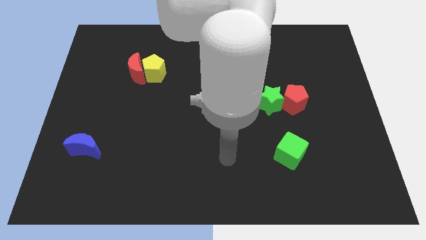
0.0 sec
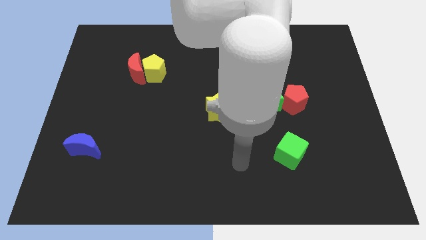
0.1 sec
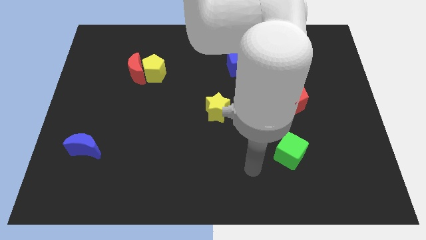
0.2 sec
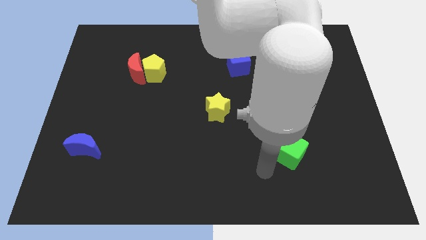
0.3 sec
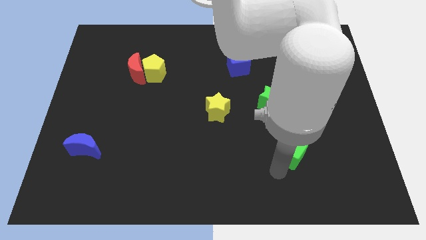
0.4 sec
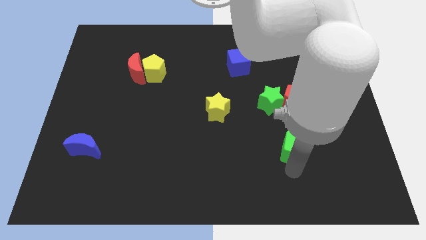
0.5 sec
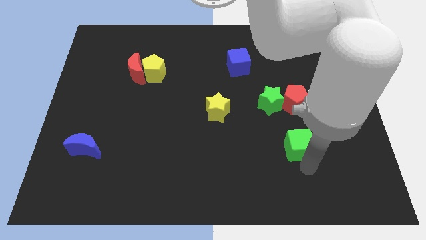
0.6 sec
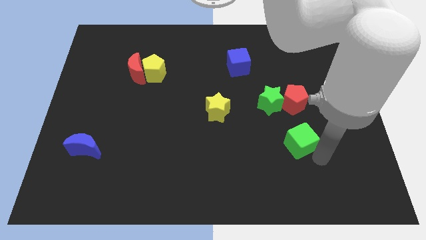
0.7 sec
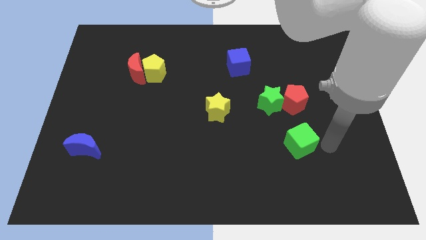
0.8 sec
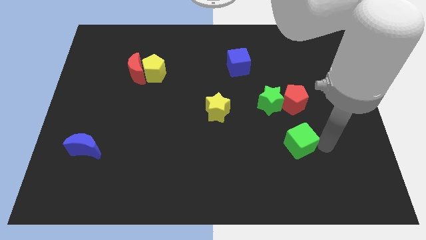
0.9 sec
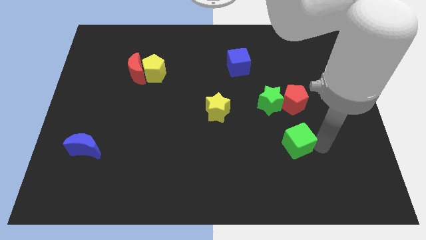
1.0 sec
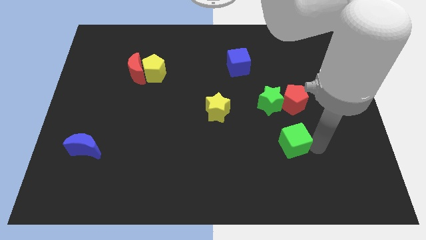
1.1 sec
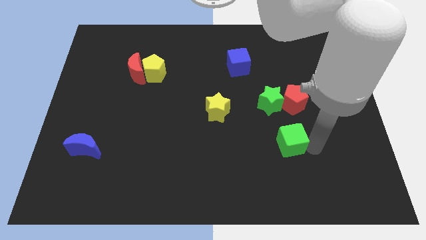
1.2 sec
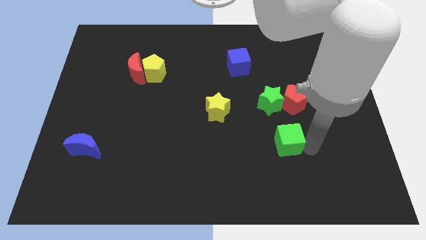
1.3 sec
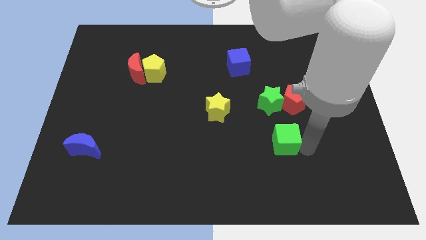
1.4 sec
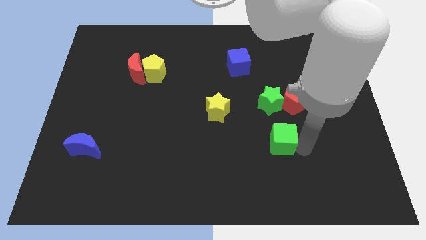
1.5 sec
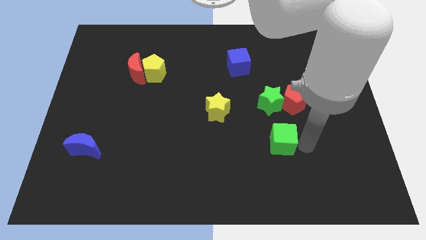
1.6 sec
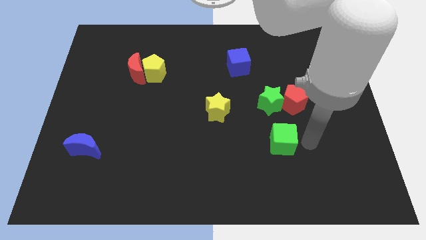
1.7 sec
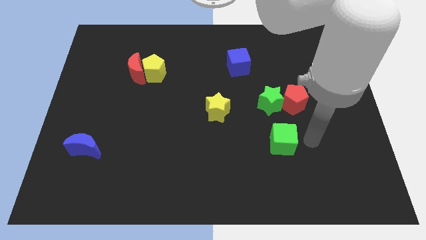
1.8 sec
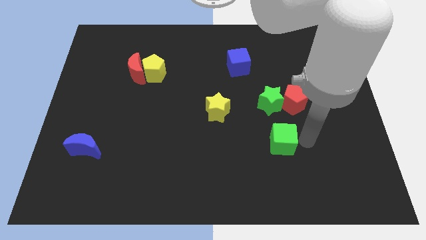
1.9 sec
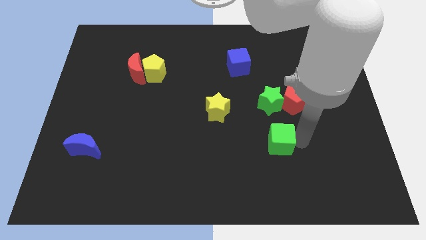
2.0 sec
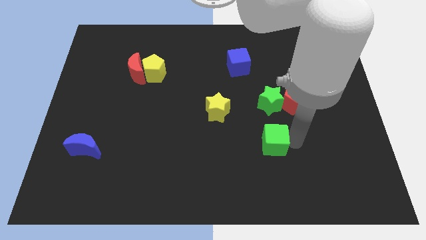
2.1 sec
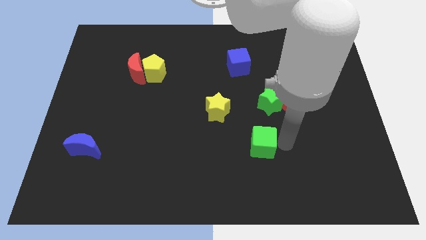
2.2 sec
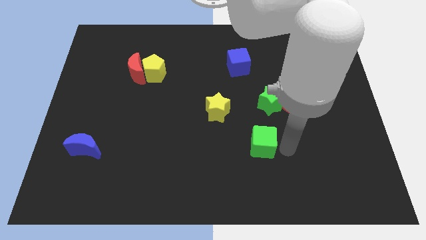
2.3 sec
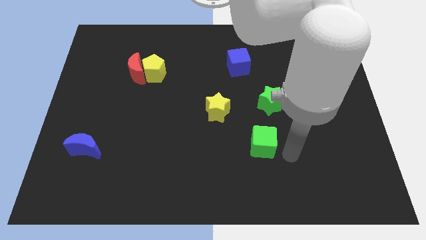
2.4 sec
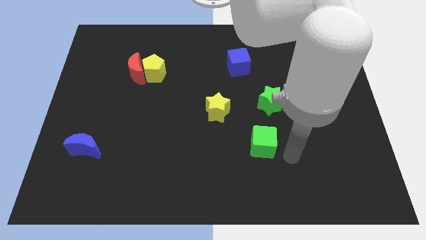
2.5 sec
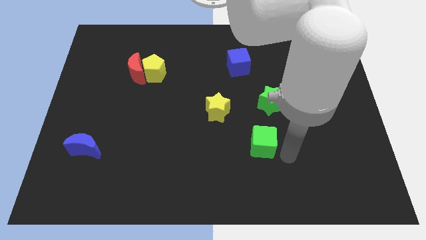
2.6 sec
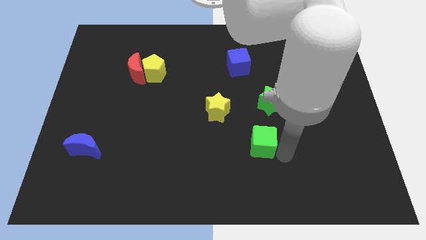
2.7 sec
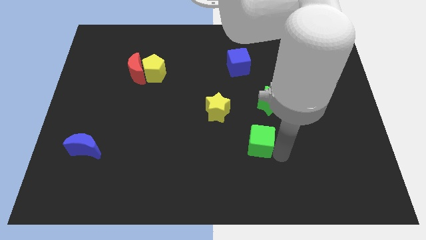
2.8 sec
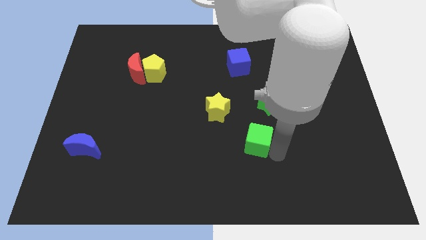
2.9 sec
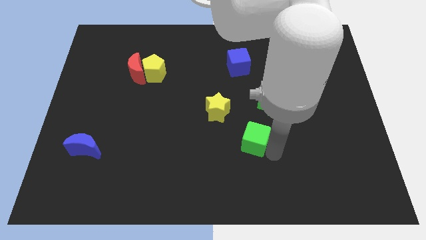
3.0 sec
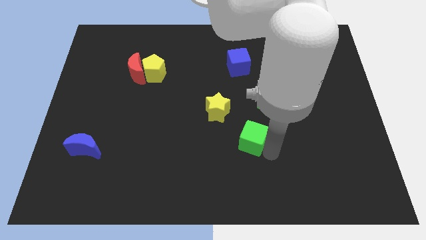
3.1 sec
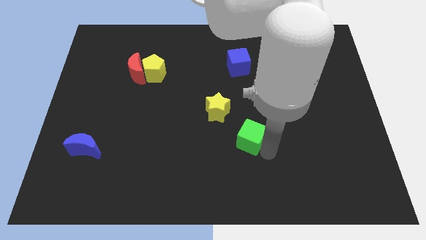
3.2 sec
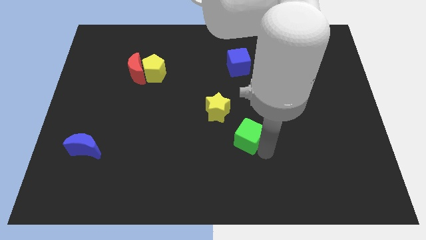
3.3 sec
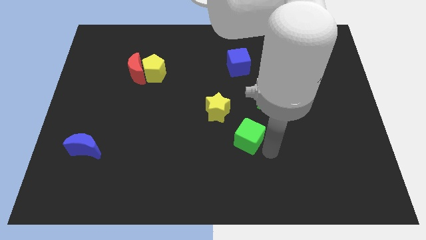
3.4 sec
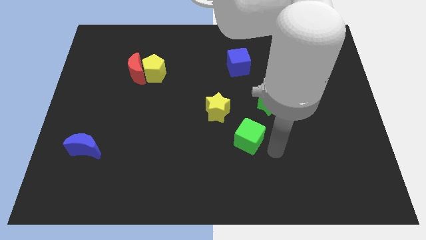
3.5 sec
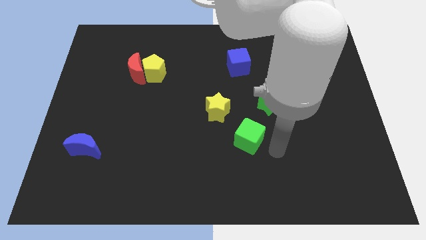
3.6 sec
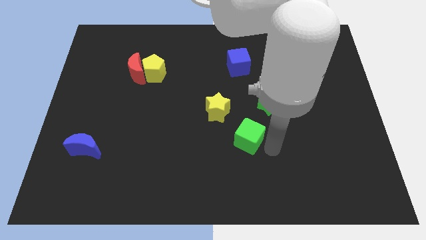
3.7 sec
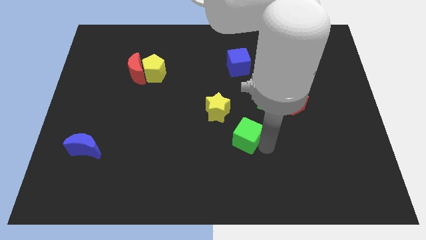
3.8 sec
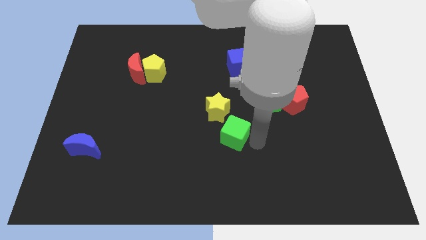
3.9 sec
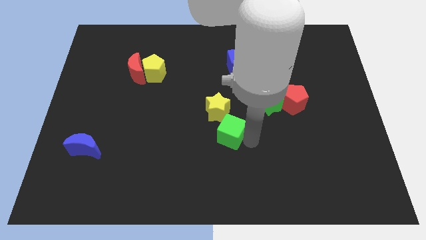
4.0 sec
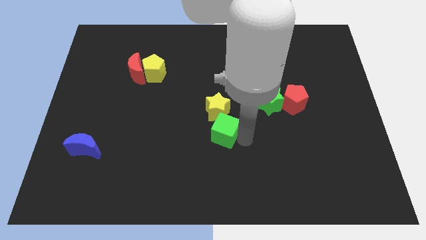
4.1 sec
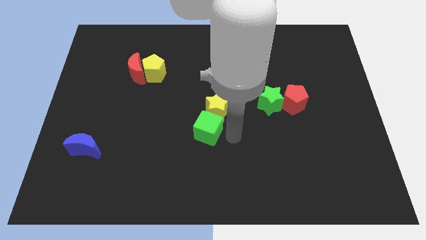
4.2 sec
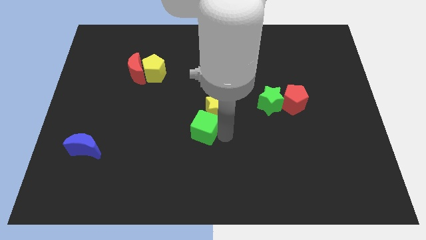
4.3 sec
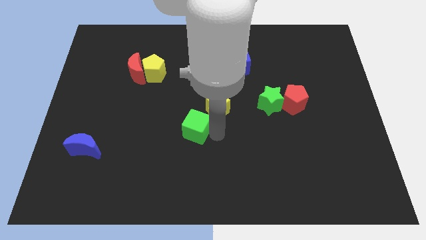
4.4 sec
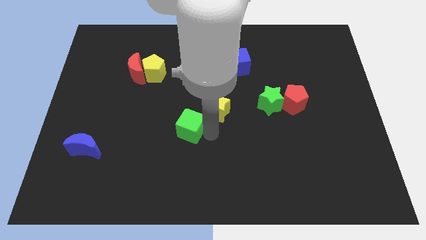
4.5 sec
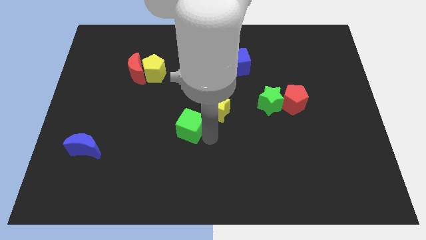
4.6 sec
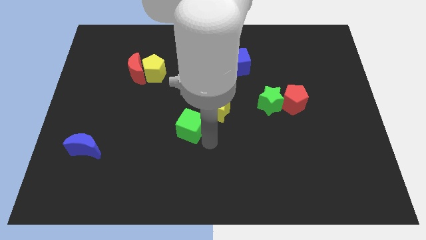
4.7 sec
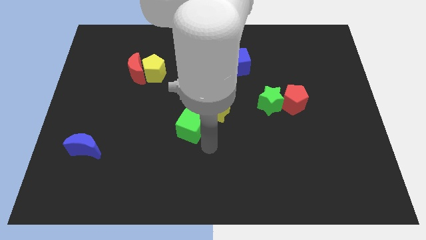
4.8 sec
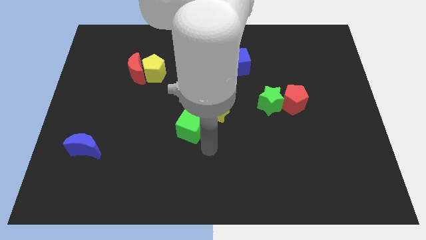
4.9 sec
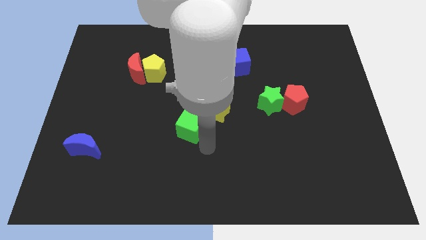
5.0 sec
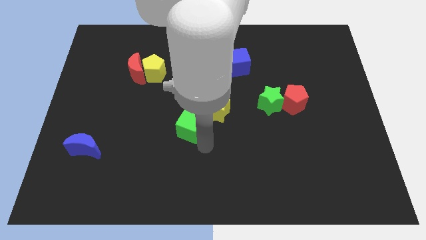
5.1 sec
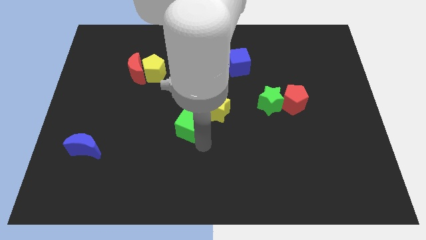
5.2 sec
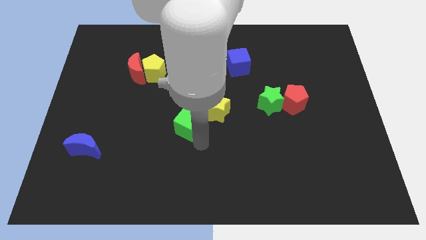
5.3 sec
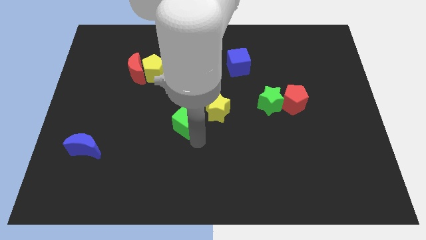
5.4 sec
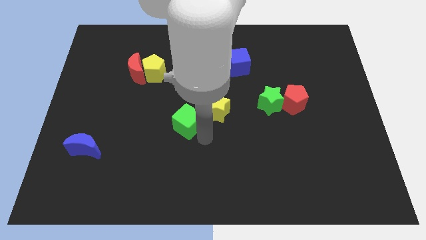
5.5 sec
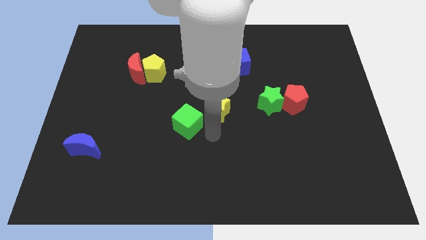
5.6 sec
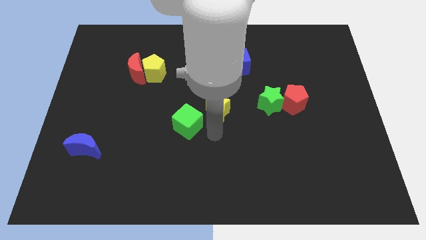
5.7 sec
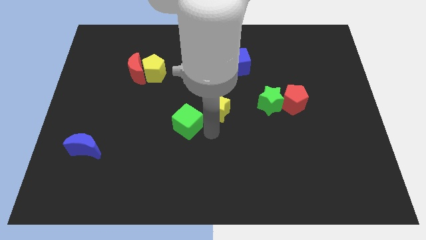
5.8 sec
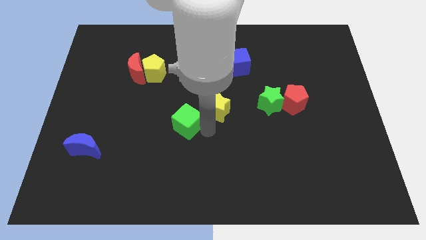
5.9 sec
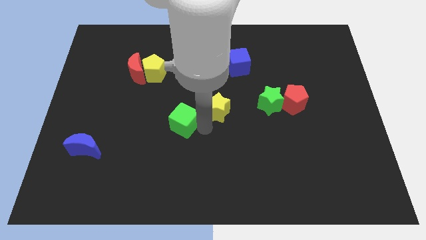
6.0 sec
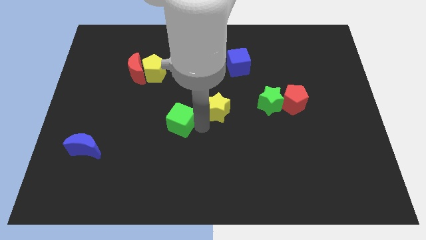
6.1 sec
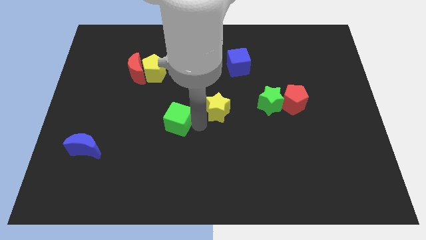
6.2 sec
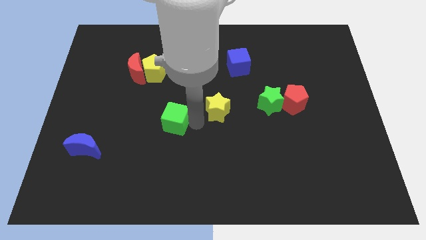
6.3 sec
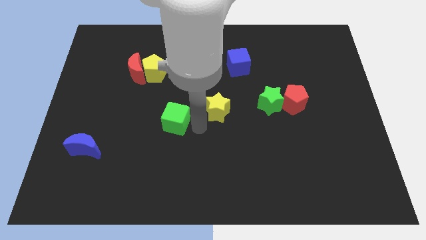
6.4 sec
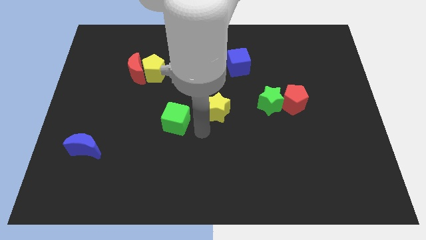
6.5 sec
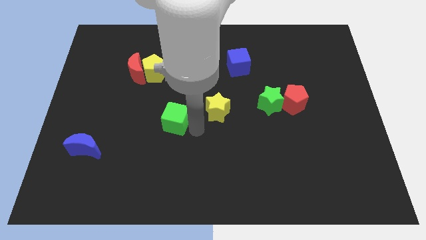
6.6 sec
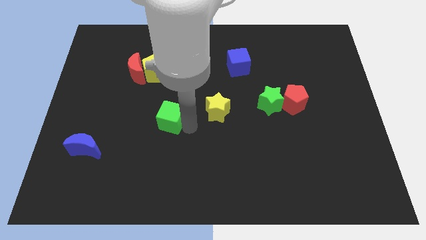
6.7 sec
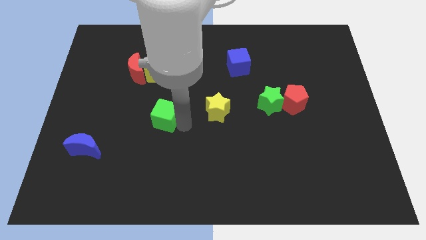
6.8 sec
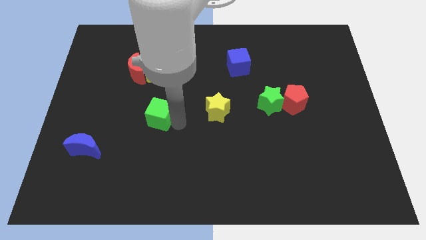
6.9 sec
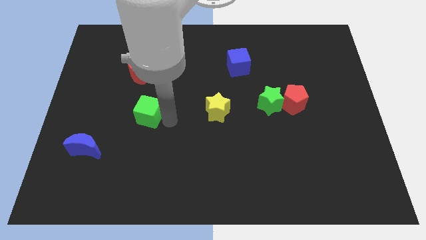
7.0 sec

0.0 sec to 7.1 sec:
push the green cube below the red moon
